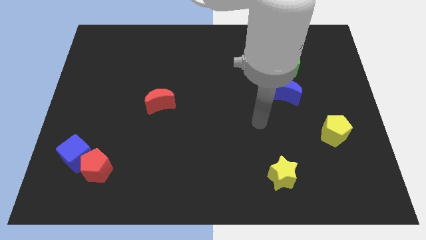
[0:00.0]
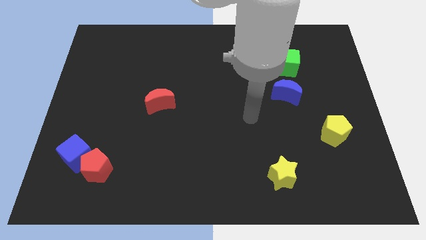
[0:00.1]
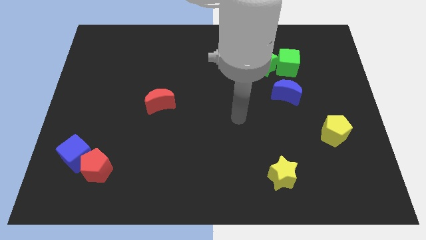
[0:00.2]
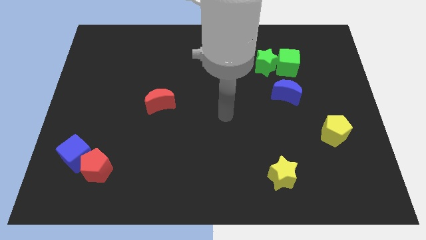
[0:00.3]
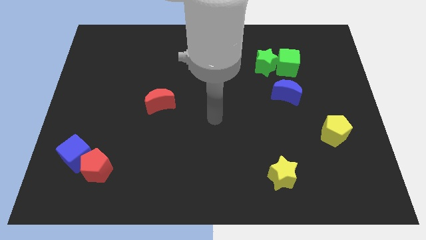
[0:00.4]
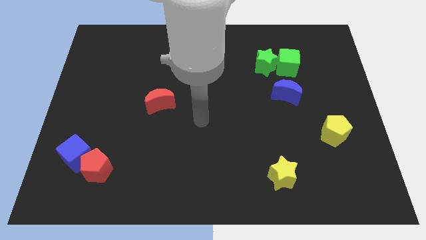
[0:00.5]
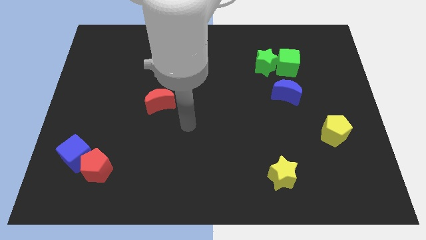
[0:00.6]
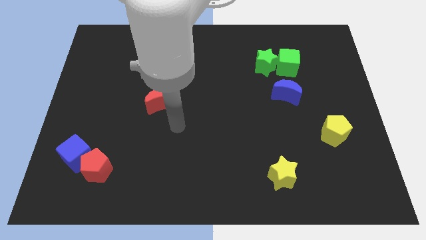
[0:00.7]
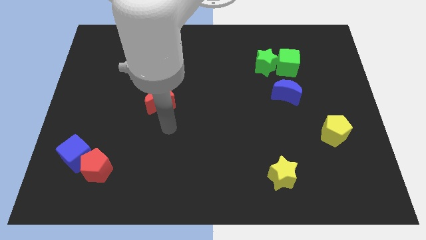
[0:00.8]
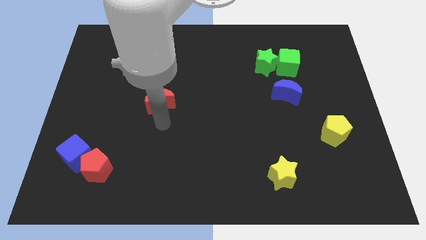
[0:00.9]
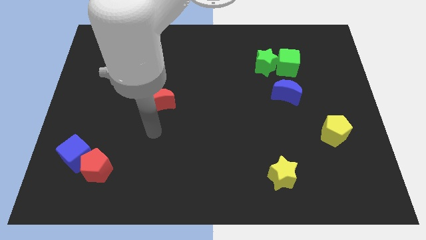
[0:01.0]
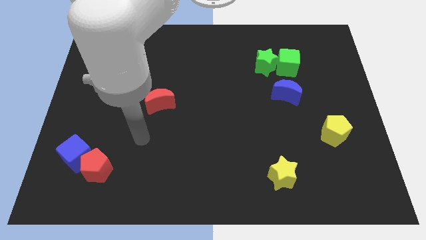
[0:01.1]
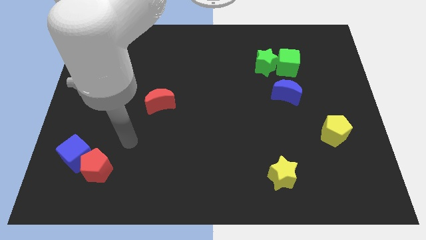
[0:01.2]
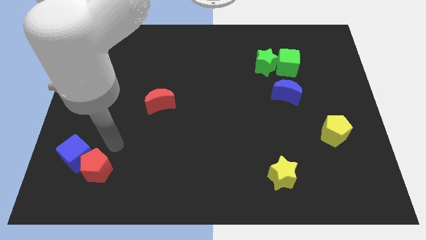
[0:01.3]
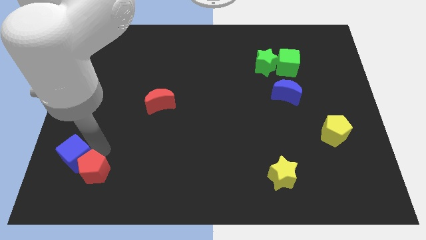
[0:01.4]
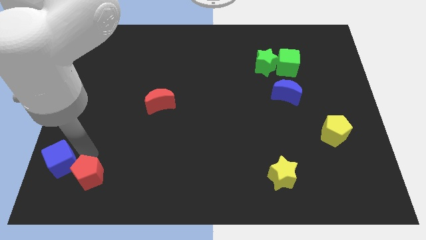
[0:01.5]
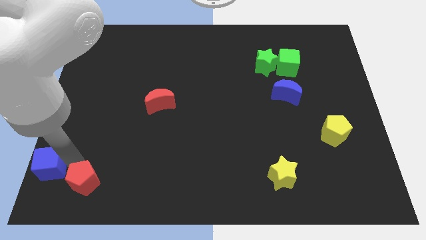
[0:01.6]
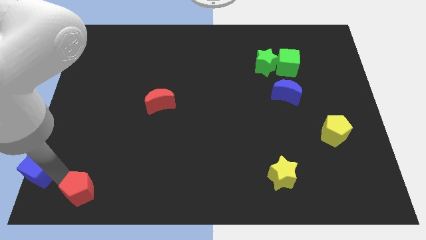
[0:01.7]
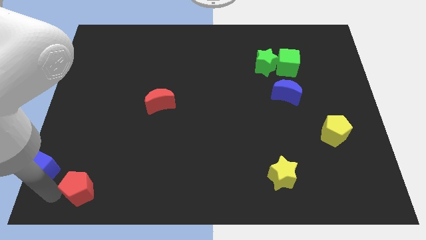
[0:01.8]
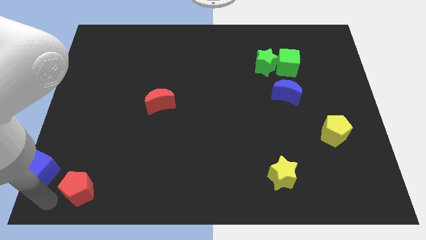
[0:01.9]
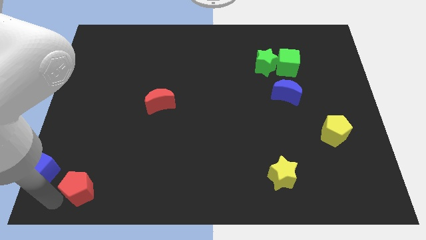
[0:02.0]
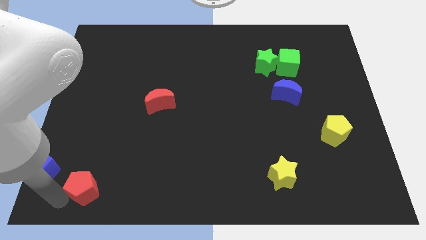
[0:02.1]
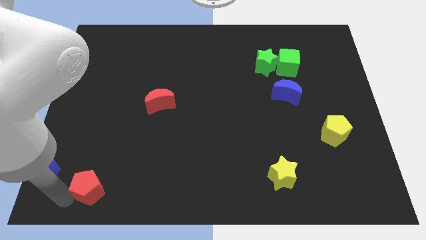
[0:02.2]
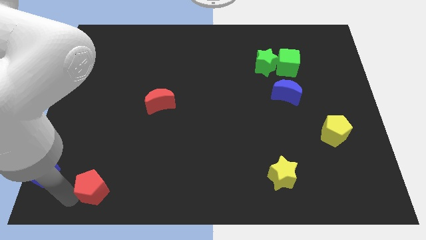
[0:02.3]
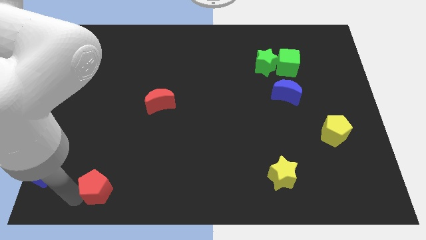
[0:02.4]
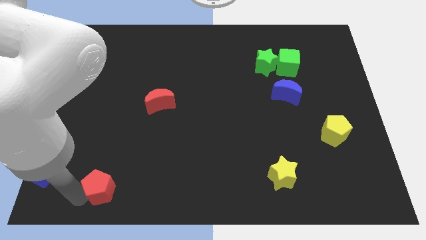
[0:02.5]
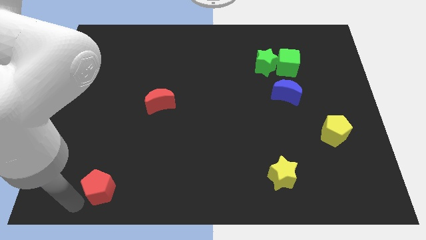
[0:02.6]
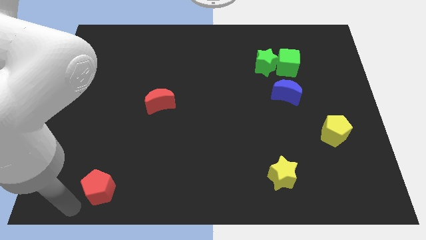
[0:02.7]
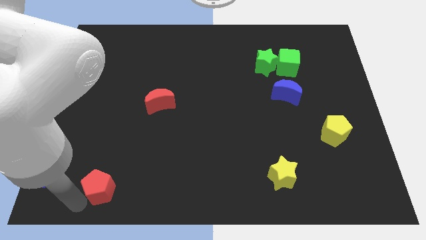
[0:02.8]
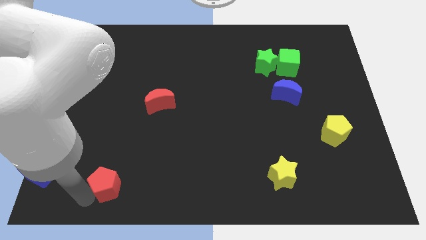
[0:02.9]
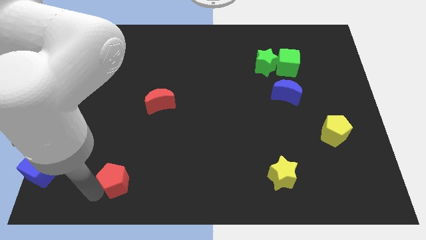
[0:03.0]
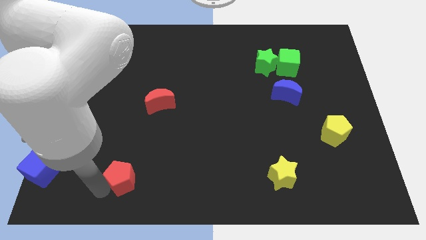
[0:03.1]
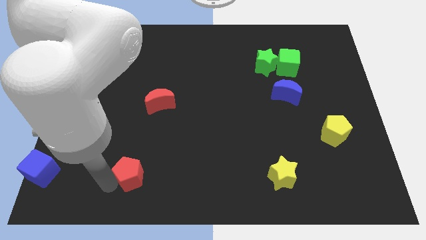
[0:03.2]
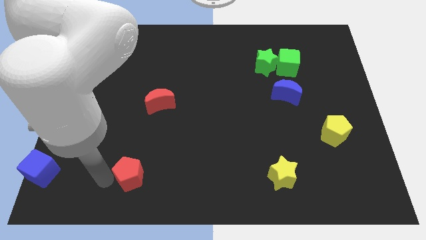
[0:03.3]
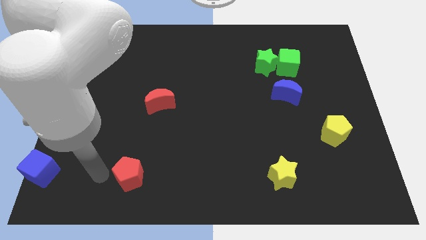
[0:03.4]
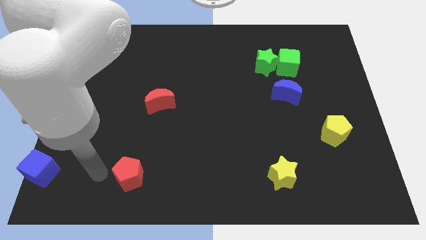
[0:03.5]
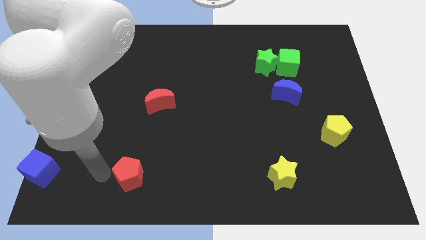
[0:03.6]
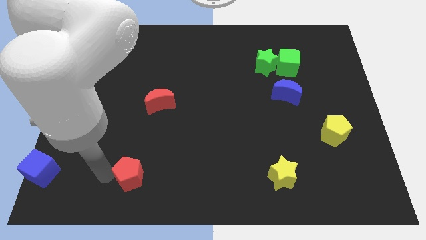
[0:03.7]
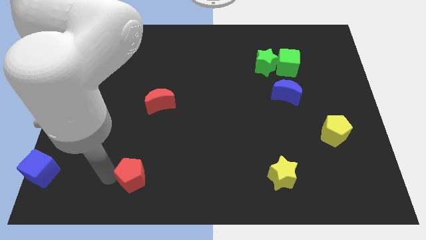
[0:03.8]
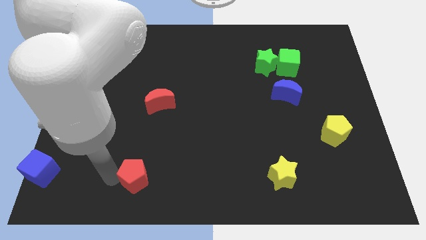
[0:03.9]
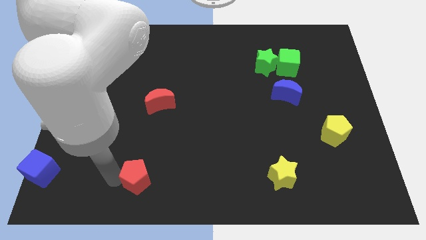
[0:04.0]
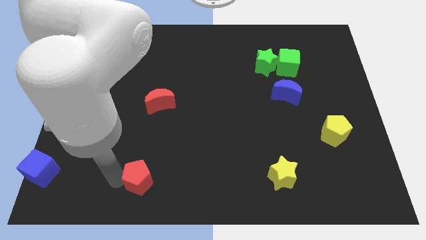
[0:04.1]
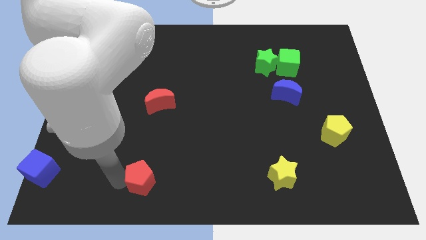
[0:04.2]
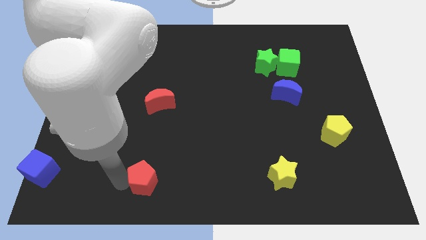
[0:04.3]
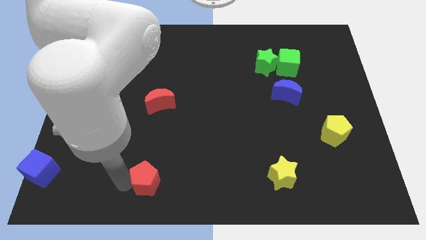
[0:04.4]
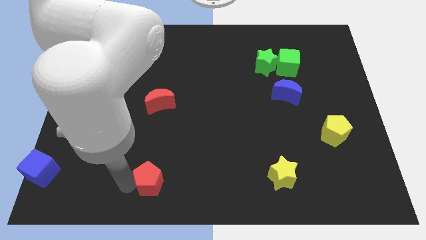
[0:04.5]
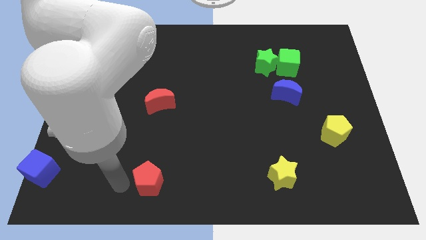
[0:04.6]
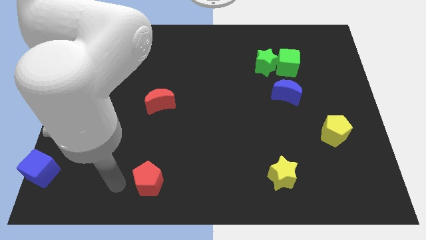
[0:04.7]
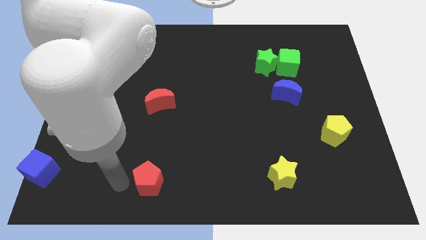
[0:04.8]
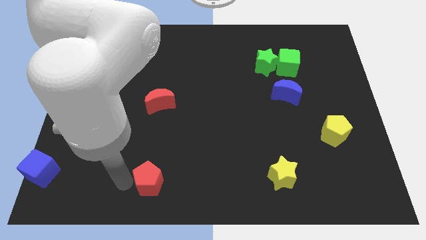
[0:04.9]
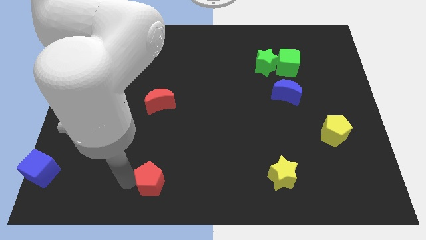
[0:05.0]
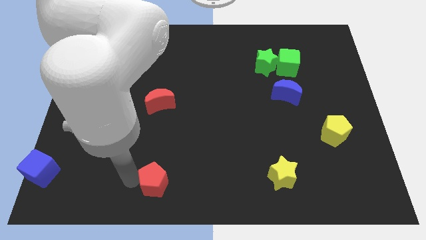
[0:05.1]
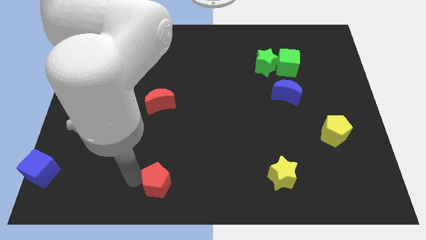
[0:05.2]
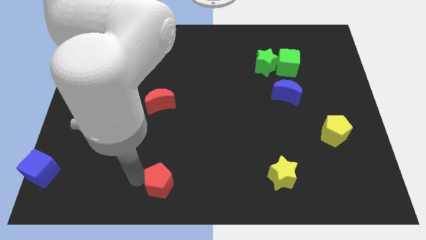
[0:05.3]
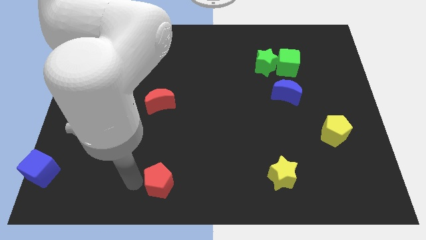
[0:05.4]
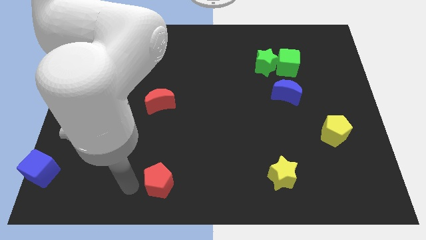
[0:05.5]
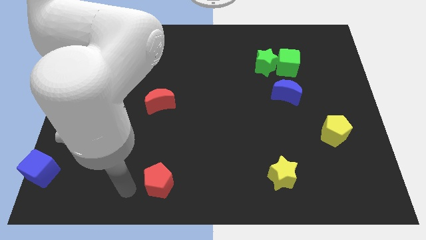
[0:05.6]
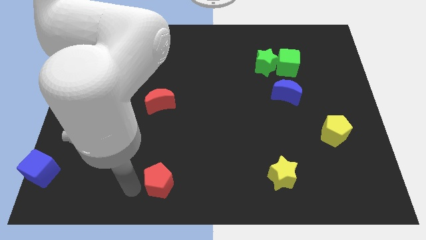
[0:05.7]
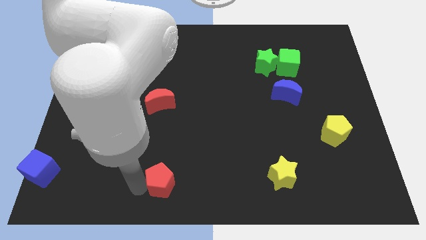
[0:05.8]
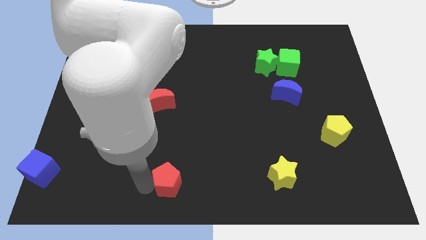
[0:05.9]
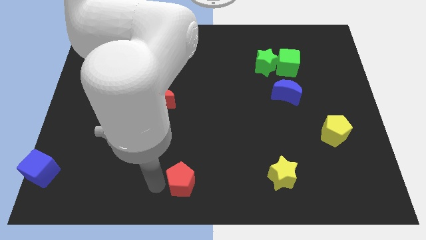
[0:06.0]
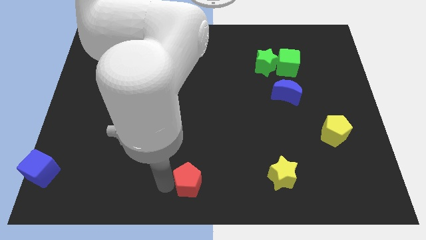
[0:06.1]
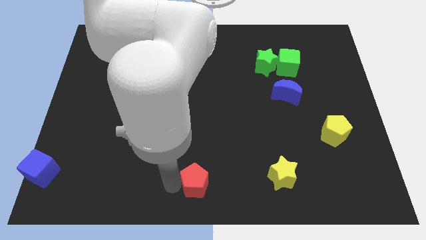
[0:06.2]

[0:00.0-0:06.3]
move the red pentagon to the right

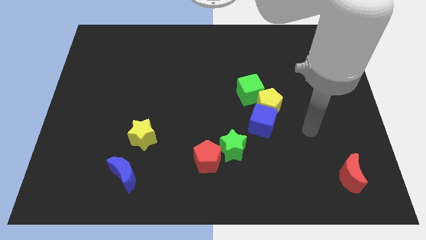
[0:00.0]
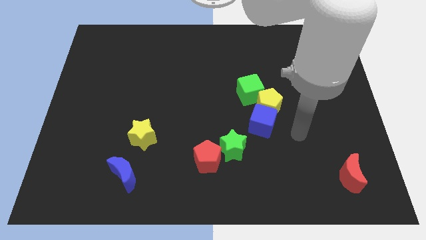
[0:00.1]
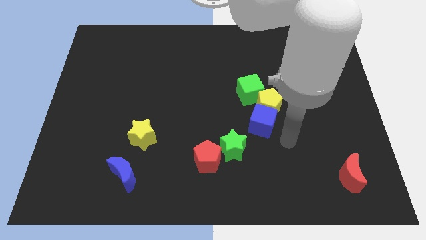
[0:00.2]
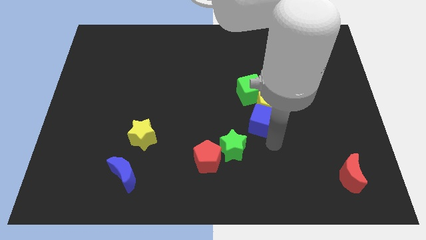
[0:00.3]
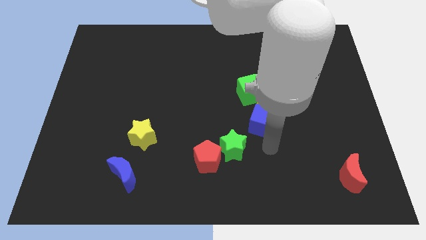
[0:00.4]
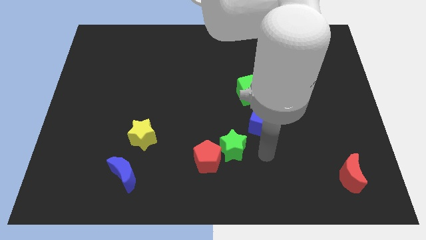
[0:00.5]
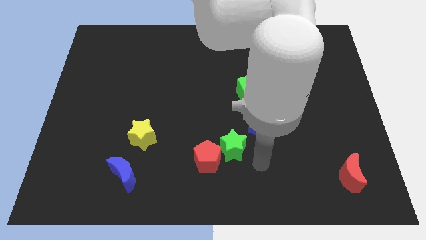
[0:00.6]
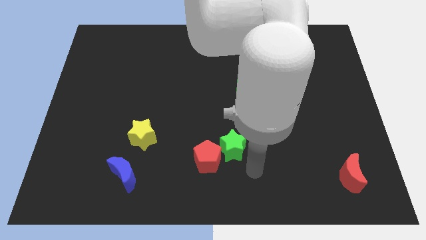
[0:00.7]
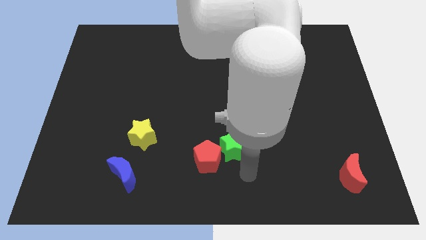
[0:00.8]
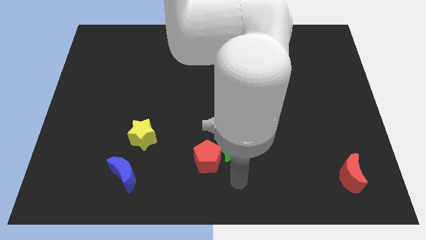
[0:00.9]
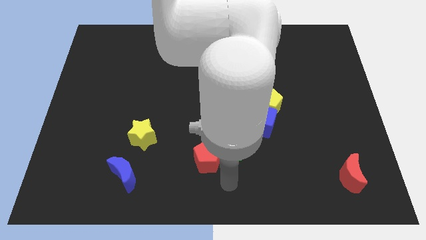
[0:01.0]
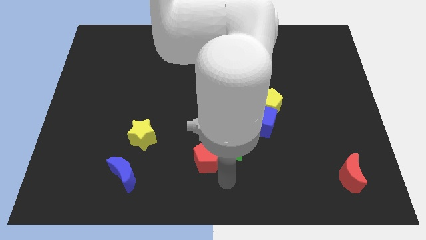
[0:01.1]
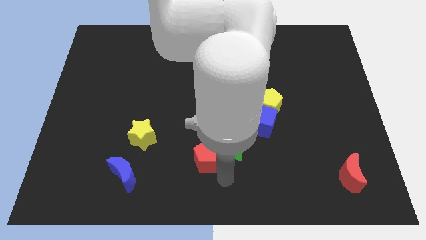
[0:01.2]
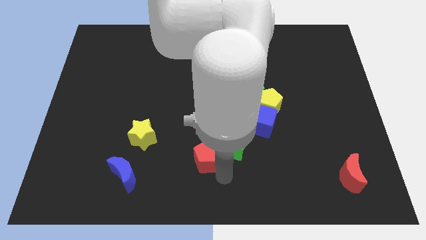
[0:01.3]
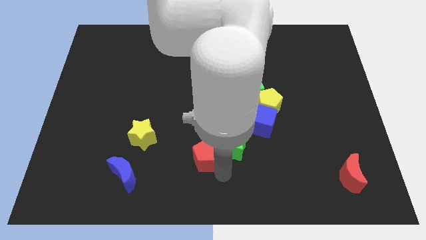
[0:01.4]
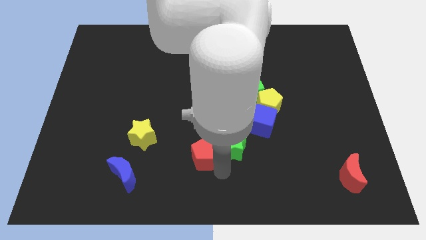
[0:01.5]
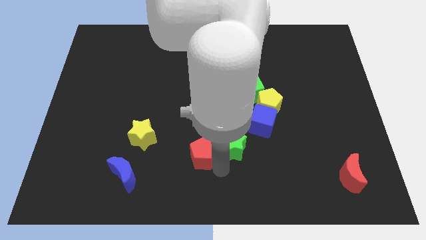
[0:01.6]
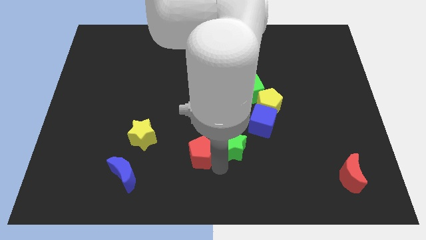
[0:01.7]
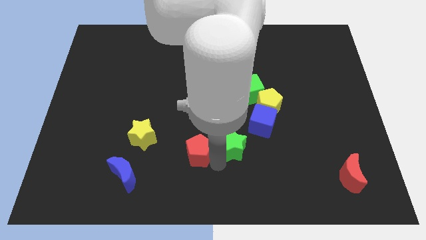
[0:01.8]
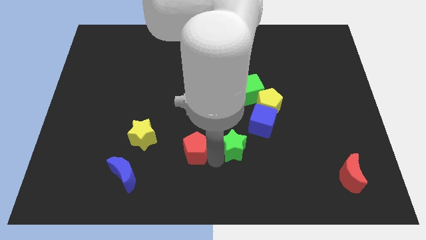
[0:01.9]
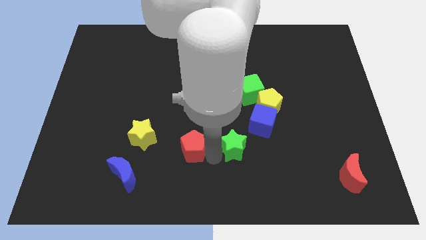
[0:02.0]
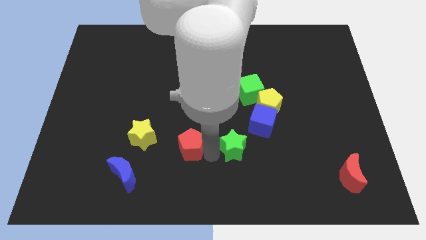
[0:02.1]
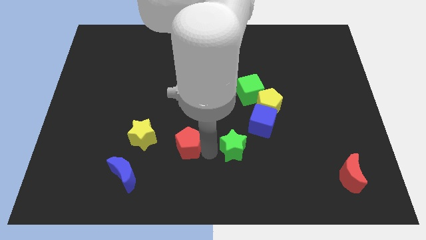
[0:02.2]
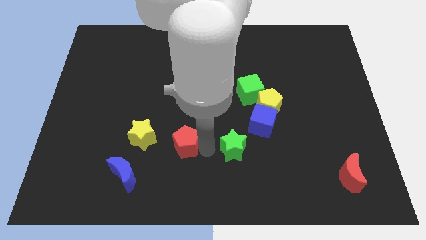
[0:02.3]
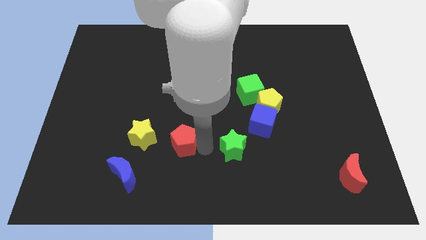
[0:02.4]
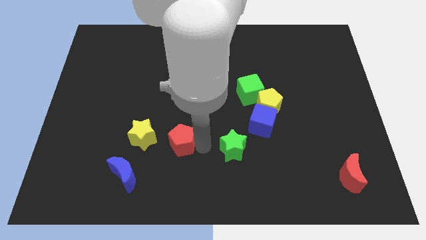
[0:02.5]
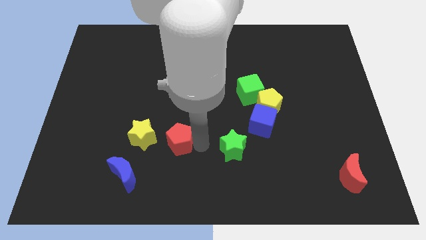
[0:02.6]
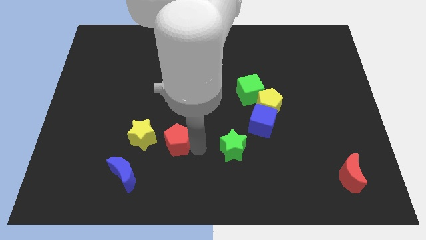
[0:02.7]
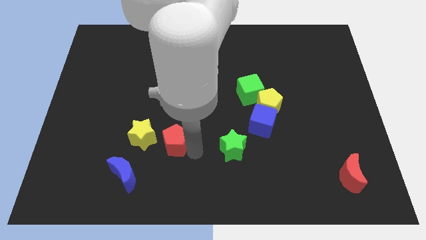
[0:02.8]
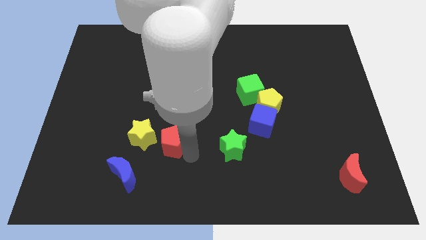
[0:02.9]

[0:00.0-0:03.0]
slightly push the red pentagon left
